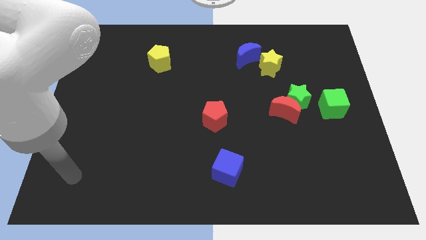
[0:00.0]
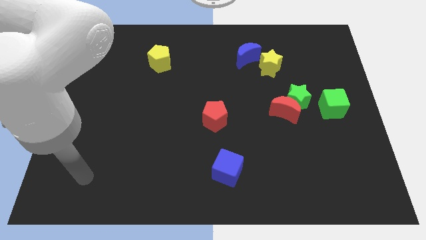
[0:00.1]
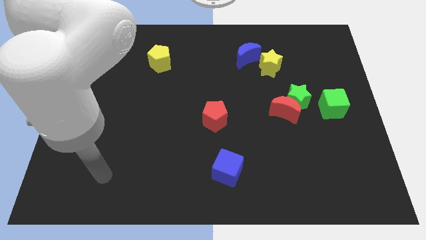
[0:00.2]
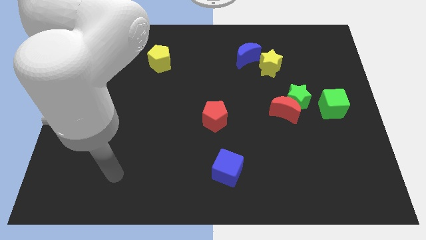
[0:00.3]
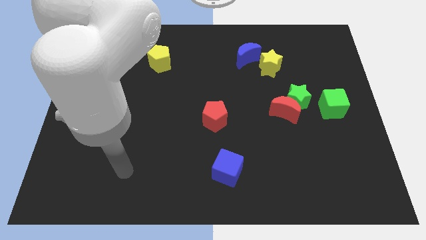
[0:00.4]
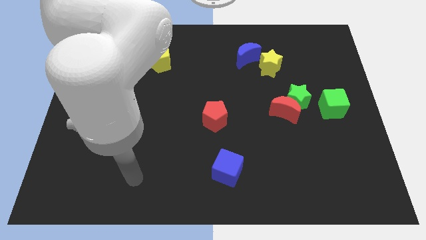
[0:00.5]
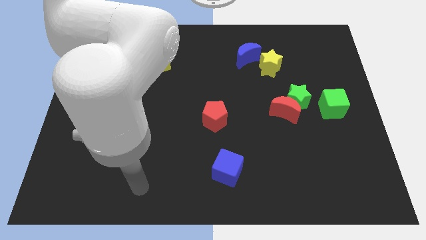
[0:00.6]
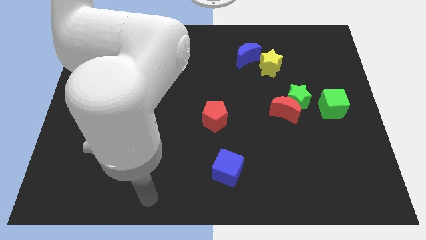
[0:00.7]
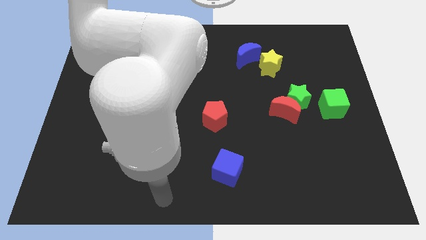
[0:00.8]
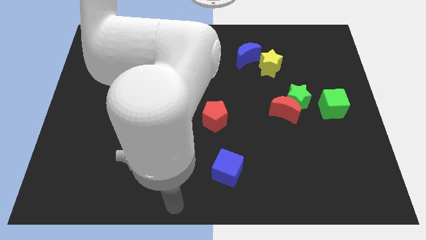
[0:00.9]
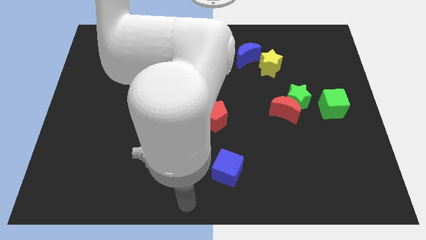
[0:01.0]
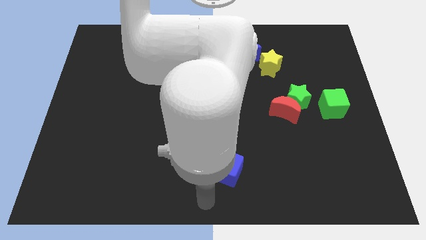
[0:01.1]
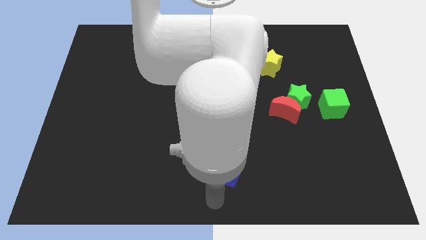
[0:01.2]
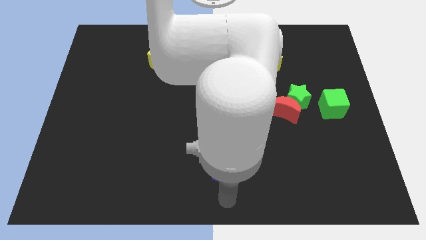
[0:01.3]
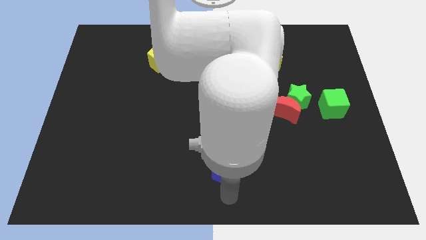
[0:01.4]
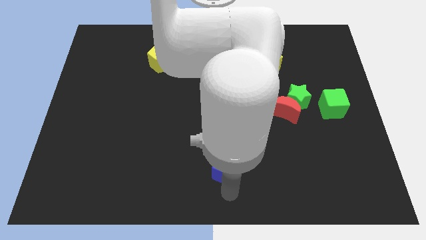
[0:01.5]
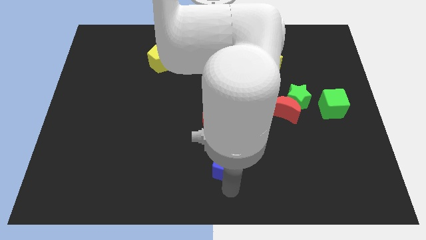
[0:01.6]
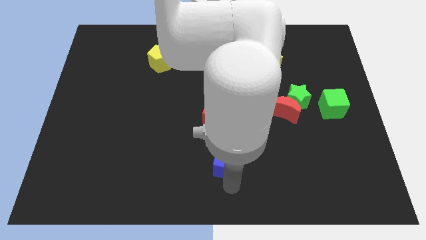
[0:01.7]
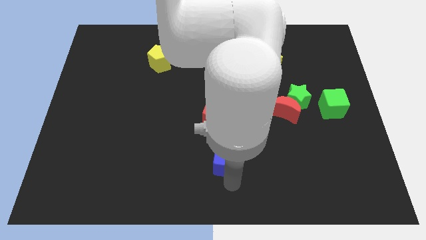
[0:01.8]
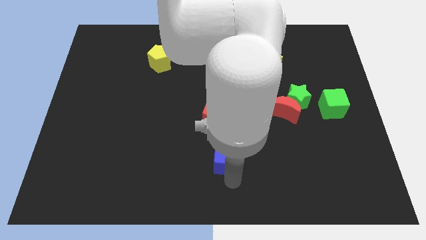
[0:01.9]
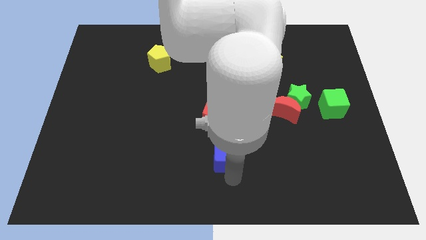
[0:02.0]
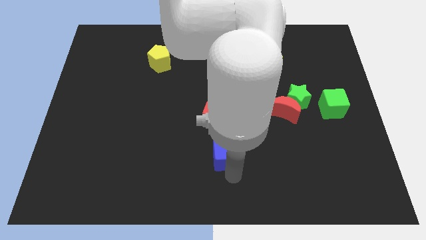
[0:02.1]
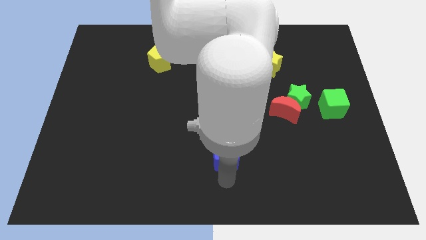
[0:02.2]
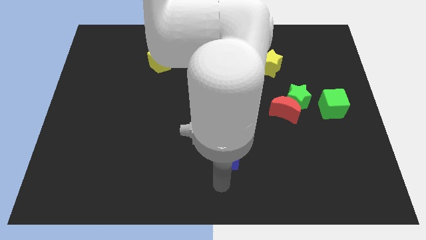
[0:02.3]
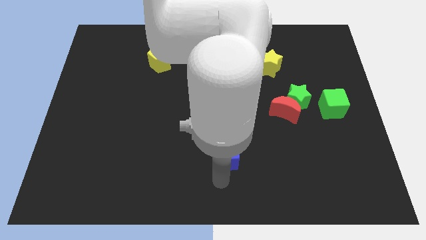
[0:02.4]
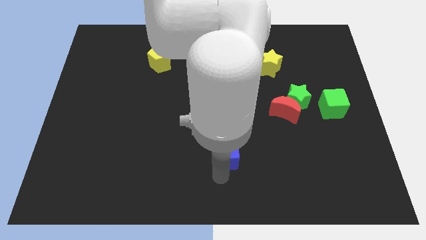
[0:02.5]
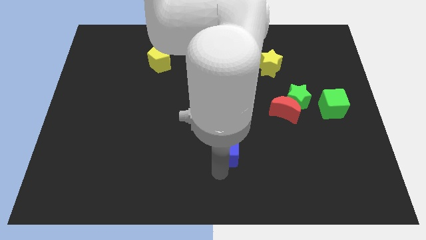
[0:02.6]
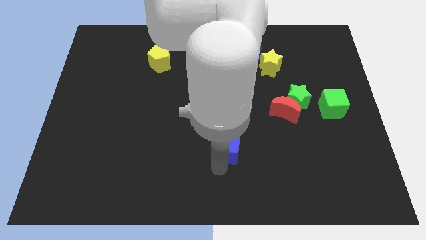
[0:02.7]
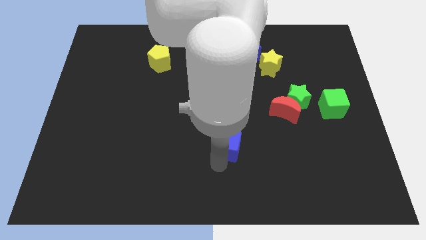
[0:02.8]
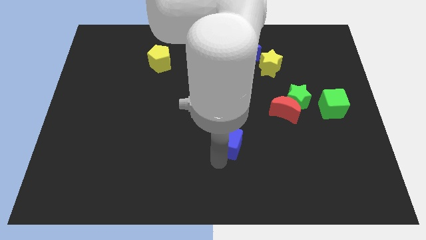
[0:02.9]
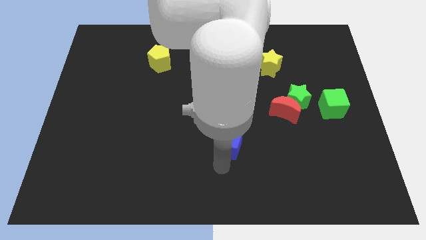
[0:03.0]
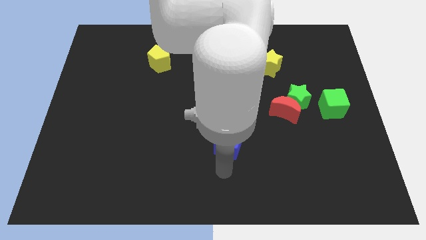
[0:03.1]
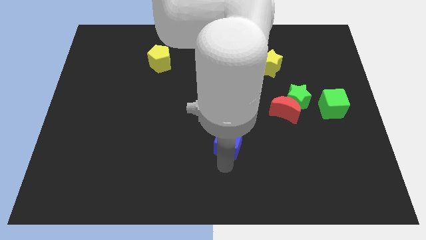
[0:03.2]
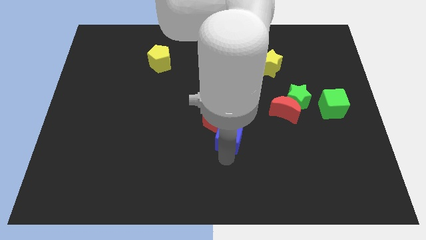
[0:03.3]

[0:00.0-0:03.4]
push the blue cube up a bit

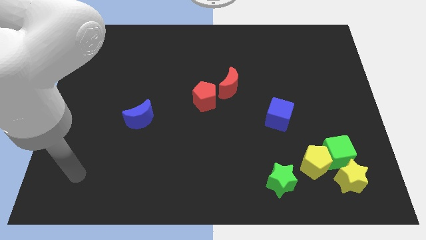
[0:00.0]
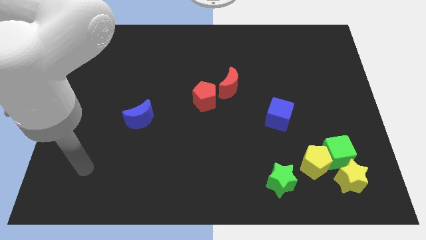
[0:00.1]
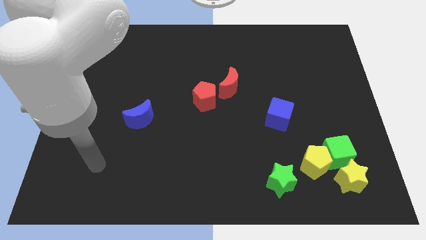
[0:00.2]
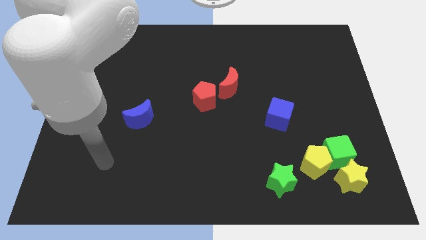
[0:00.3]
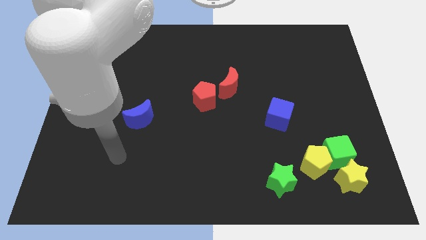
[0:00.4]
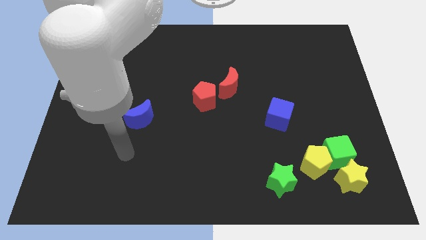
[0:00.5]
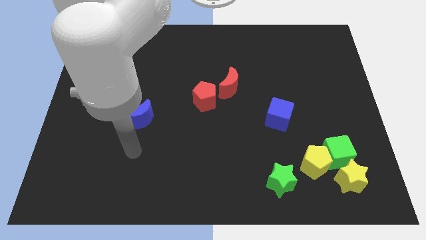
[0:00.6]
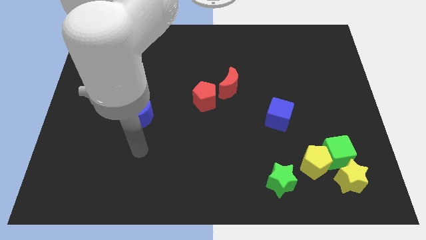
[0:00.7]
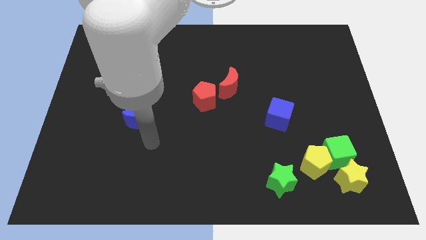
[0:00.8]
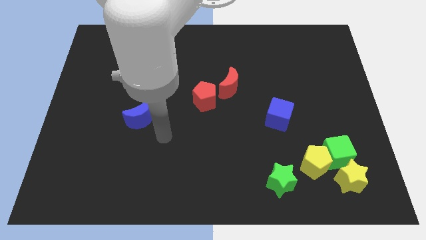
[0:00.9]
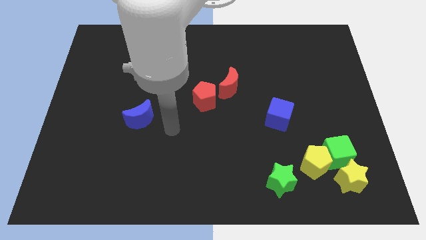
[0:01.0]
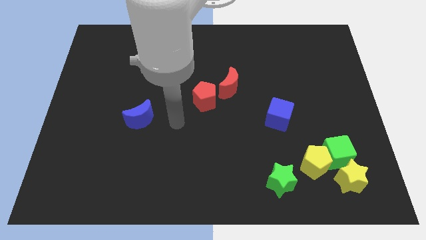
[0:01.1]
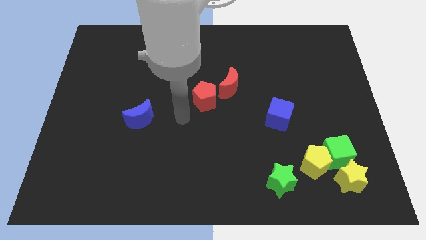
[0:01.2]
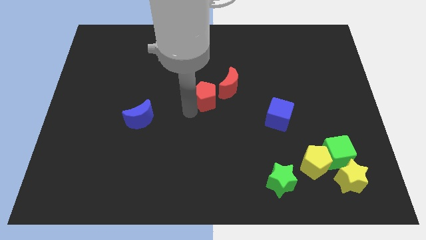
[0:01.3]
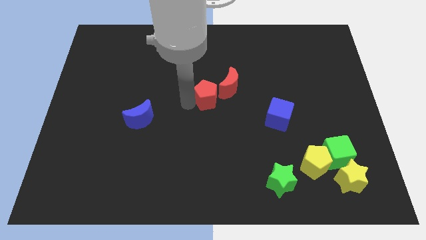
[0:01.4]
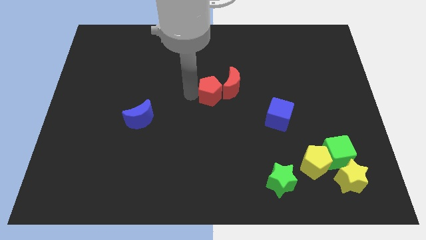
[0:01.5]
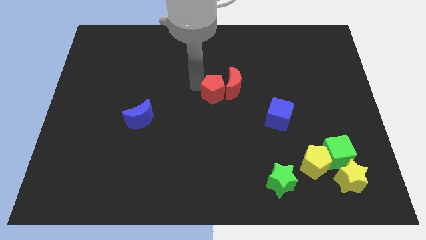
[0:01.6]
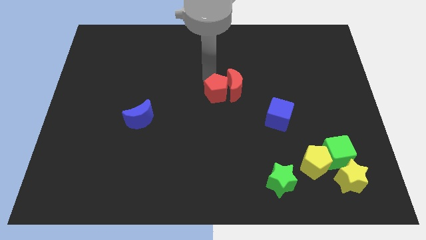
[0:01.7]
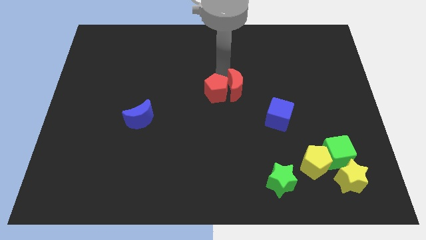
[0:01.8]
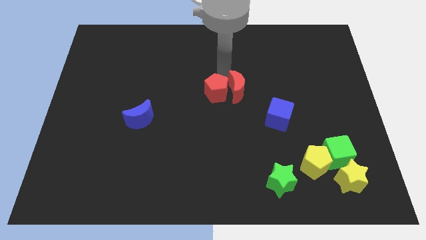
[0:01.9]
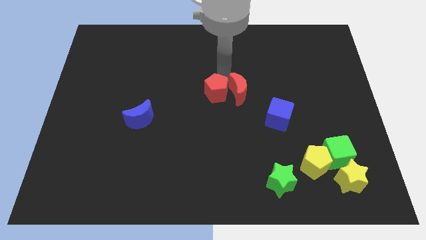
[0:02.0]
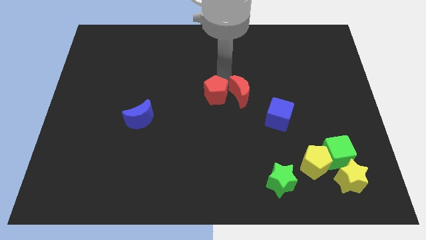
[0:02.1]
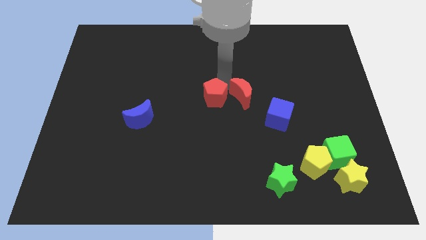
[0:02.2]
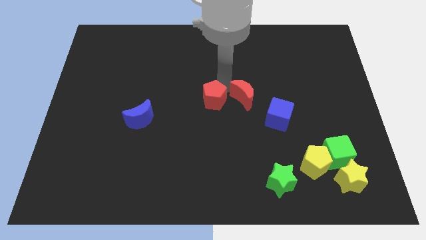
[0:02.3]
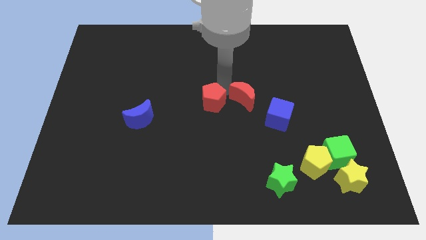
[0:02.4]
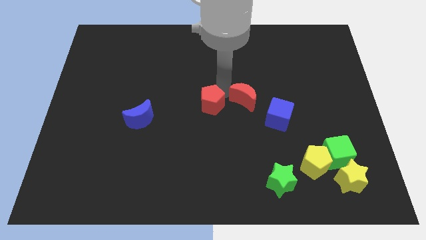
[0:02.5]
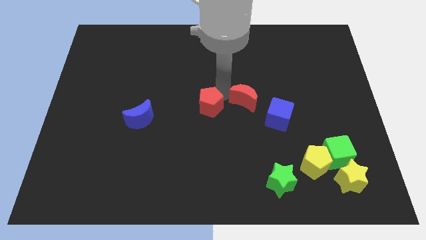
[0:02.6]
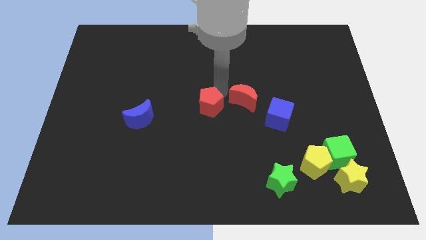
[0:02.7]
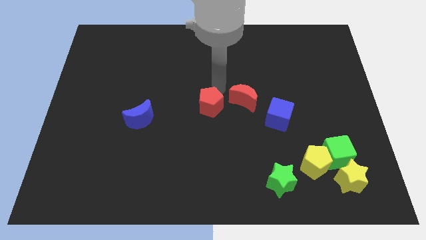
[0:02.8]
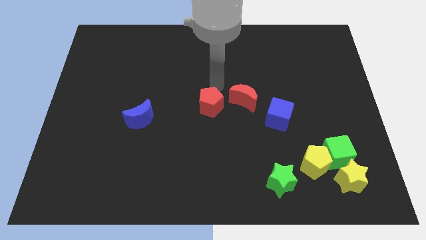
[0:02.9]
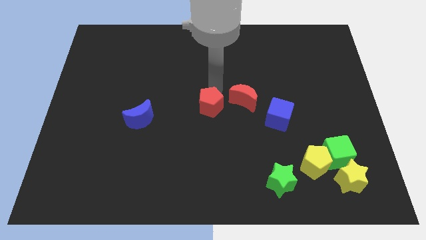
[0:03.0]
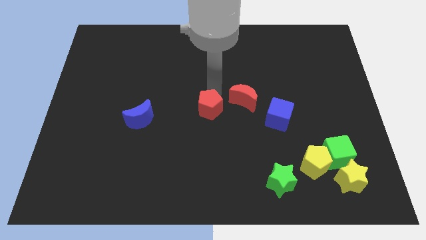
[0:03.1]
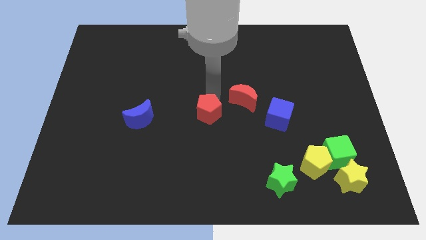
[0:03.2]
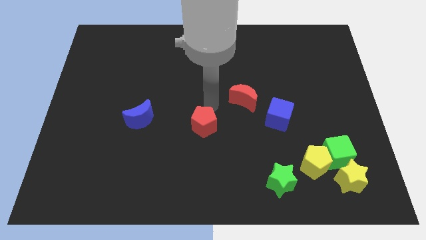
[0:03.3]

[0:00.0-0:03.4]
move the red pentagon downwards a bit

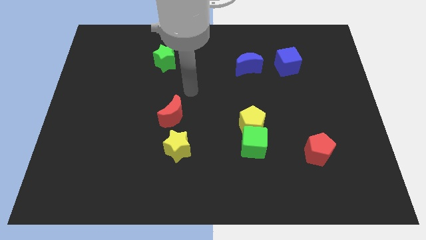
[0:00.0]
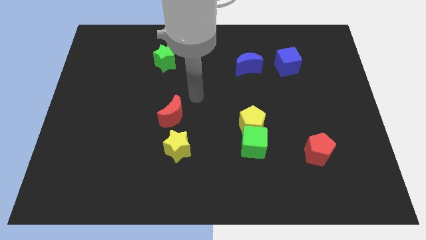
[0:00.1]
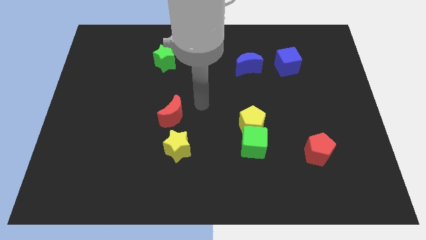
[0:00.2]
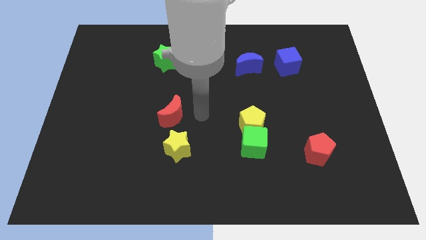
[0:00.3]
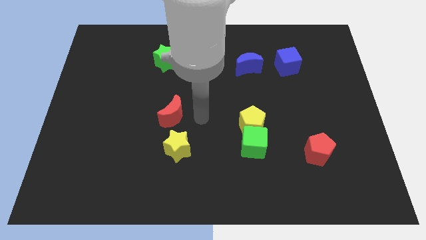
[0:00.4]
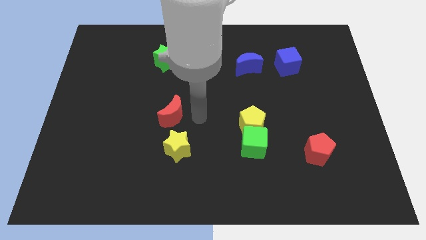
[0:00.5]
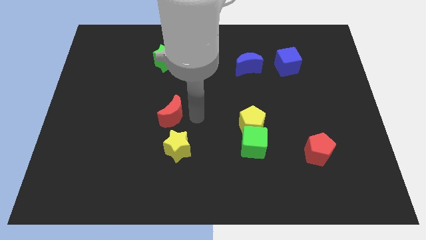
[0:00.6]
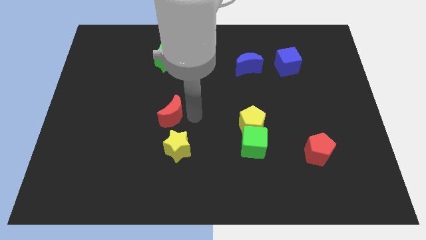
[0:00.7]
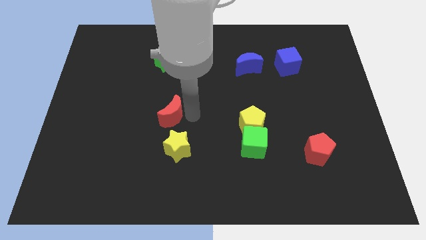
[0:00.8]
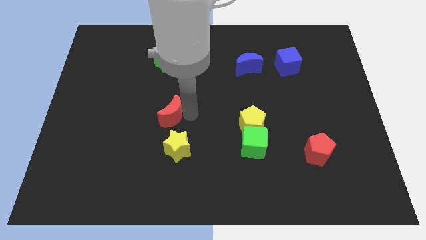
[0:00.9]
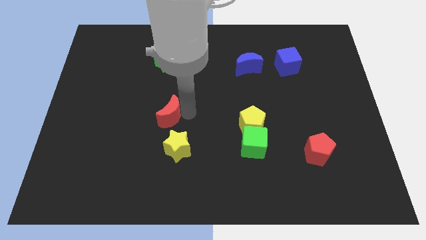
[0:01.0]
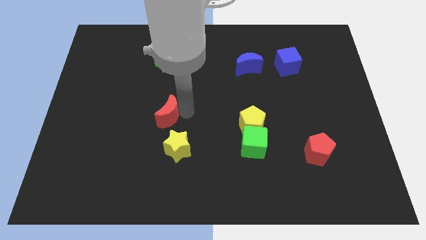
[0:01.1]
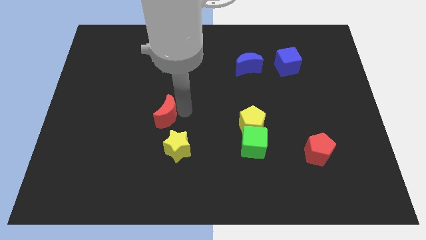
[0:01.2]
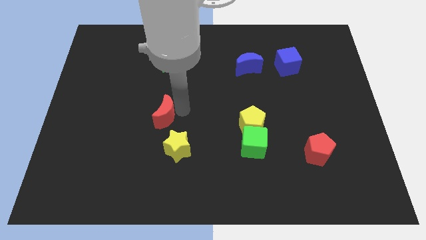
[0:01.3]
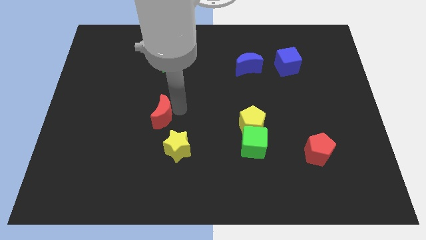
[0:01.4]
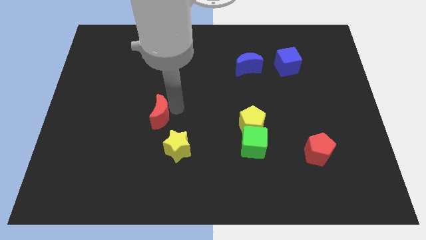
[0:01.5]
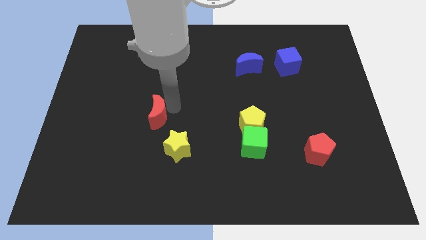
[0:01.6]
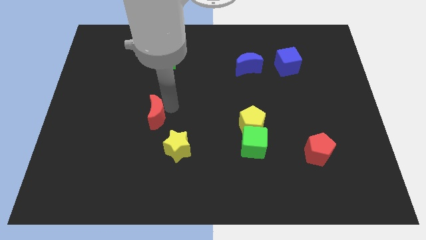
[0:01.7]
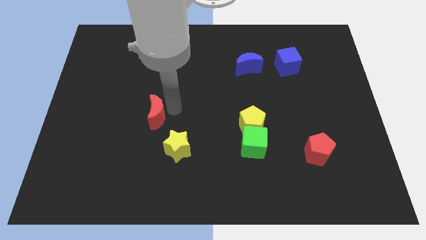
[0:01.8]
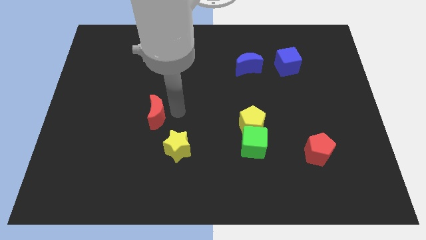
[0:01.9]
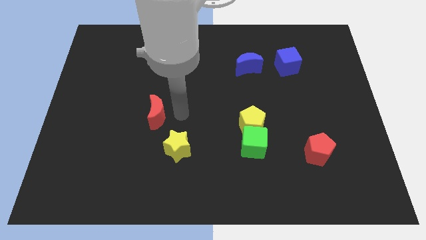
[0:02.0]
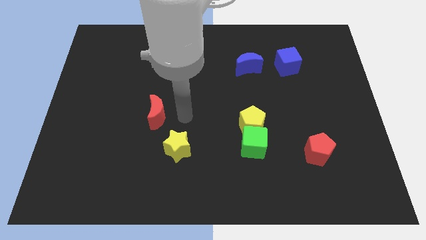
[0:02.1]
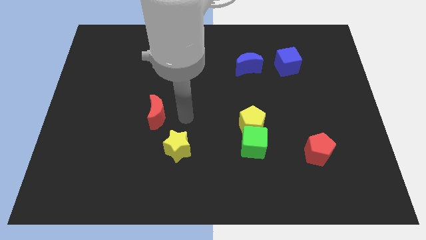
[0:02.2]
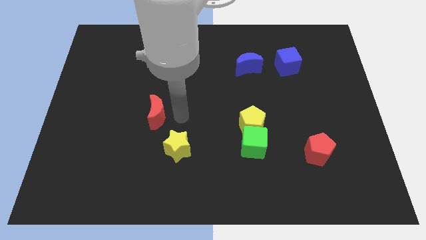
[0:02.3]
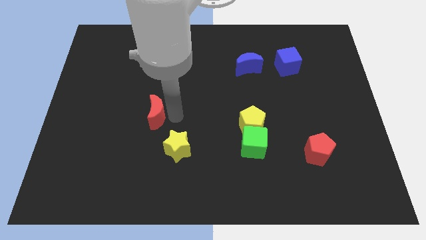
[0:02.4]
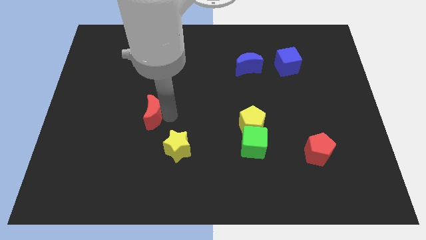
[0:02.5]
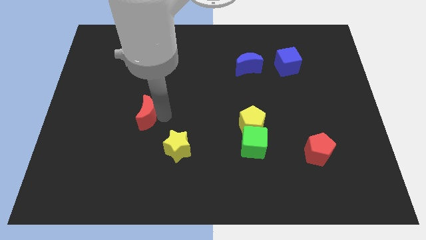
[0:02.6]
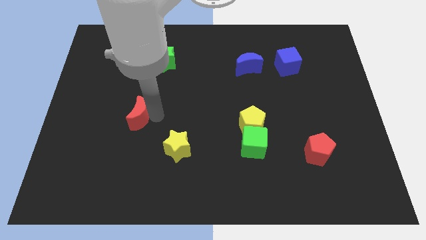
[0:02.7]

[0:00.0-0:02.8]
slightly move the red moon to the left
